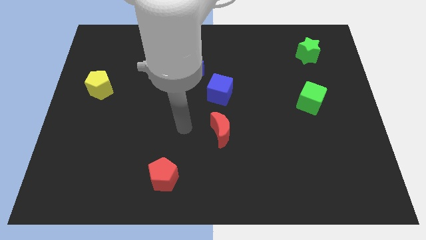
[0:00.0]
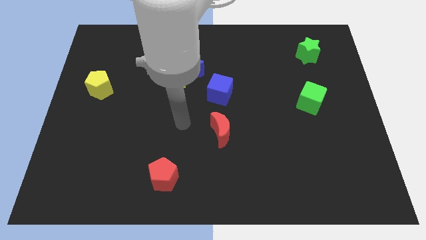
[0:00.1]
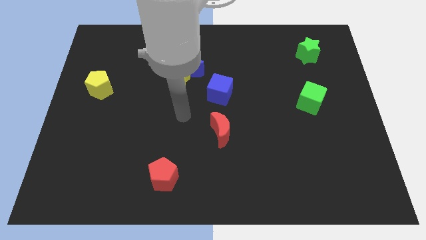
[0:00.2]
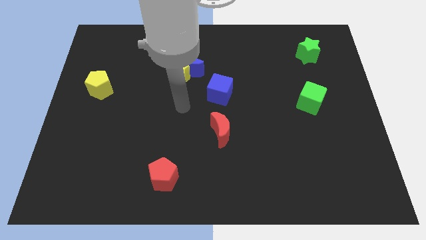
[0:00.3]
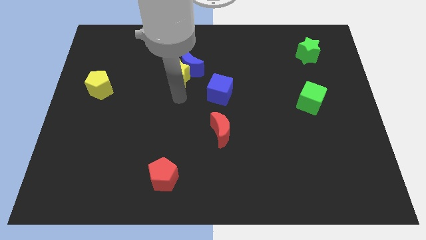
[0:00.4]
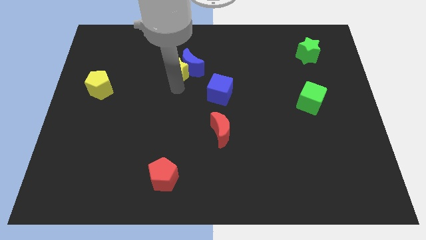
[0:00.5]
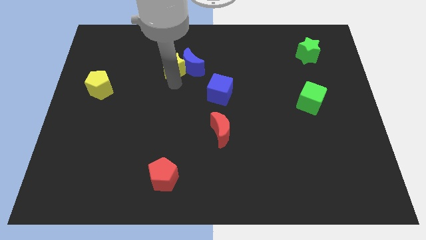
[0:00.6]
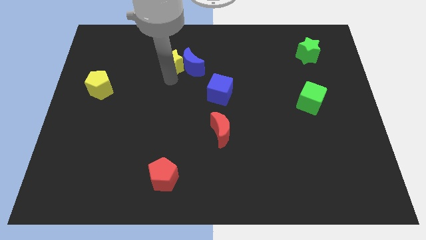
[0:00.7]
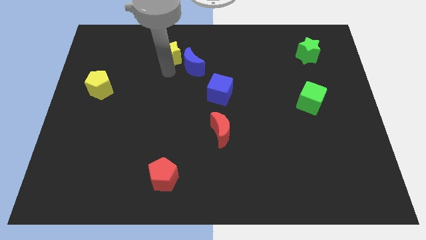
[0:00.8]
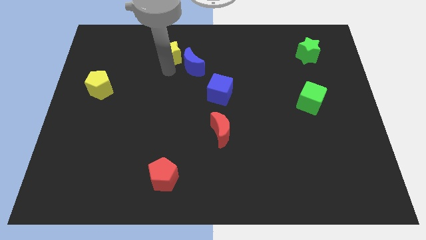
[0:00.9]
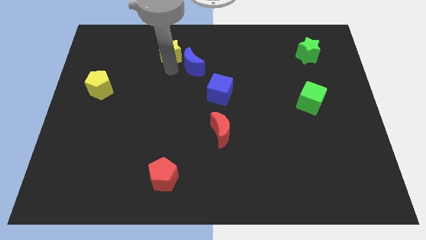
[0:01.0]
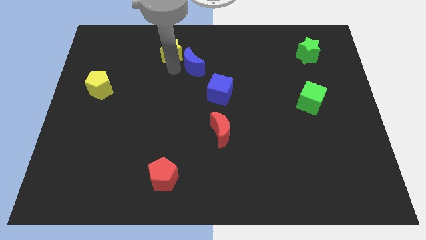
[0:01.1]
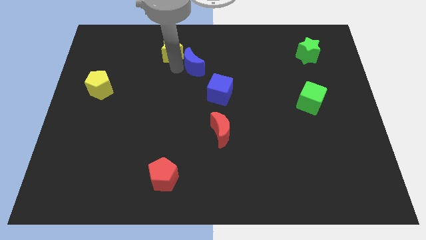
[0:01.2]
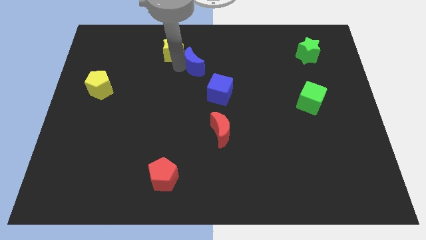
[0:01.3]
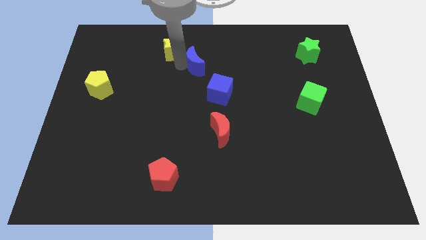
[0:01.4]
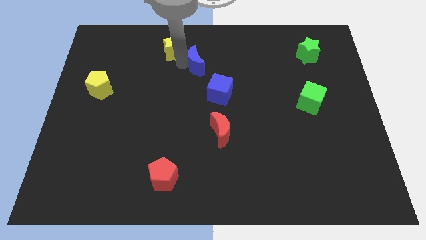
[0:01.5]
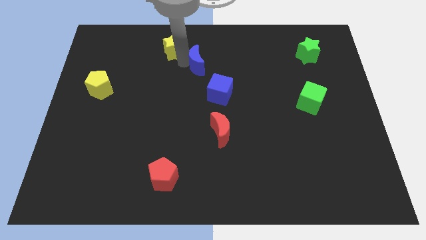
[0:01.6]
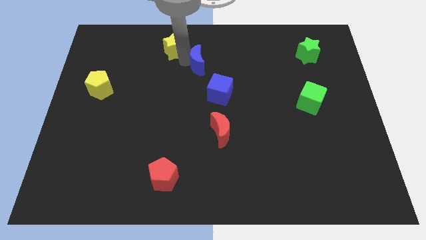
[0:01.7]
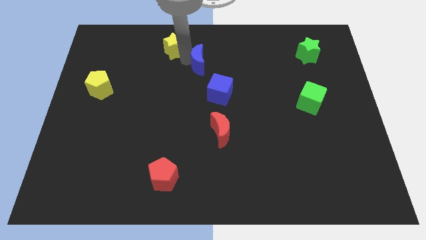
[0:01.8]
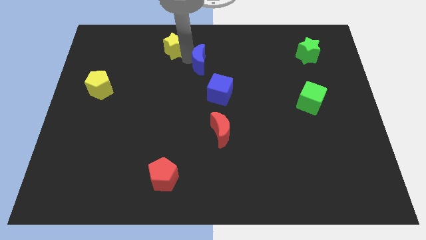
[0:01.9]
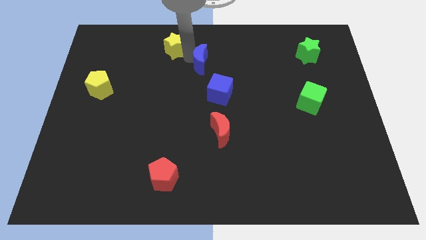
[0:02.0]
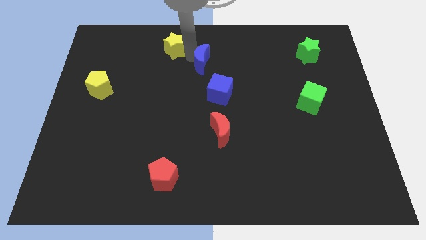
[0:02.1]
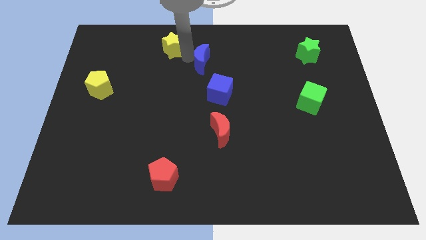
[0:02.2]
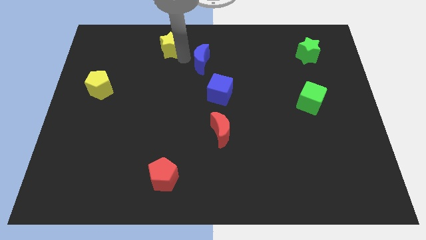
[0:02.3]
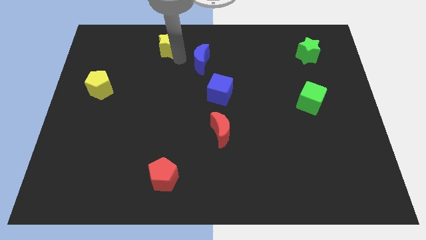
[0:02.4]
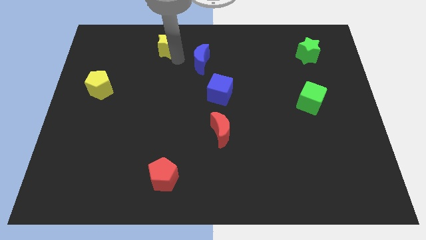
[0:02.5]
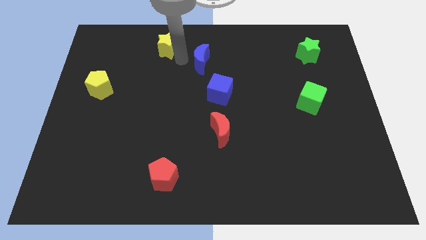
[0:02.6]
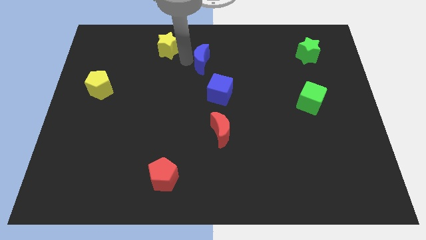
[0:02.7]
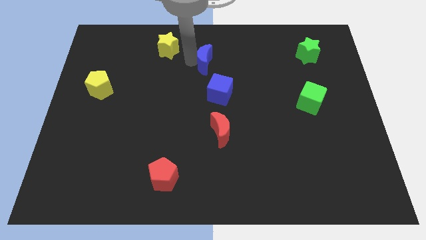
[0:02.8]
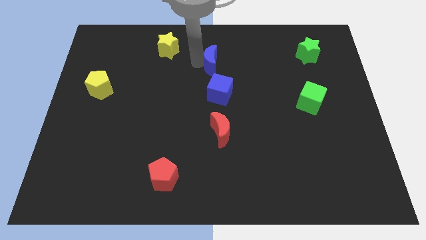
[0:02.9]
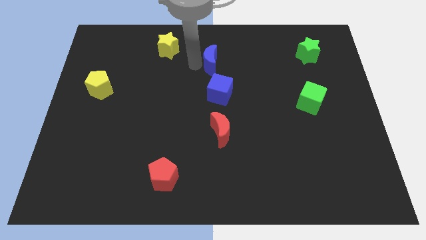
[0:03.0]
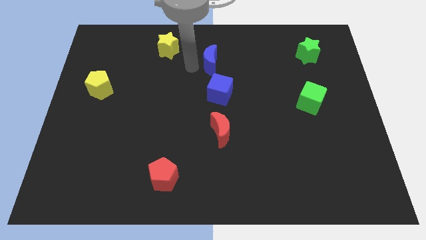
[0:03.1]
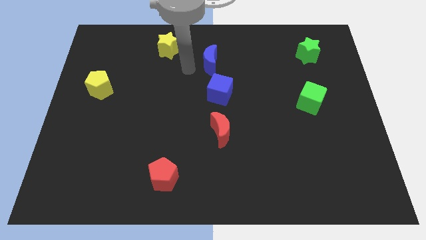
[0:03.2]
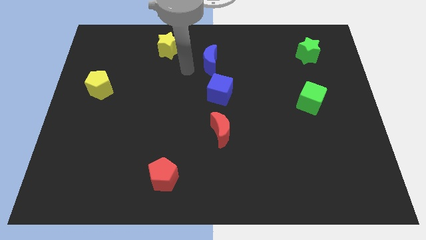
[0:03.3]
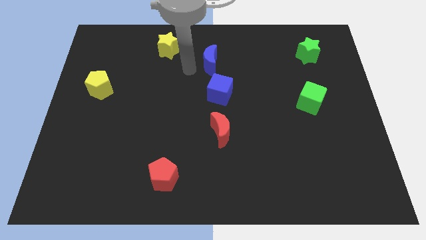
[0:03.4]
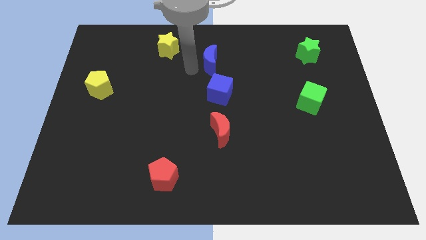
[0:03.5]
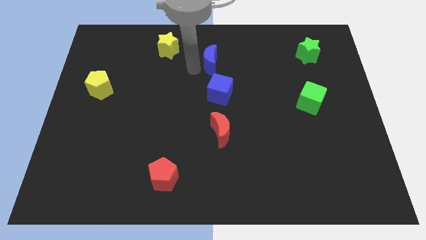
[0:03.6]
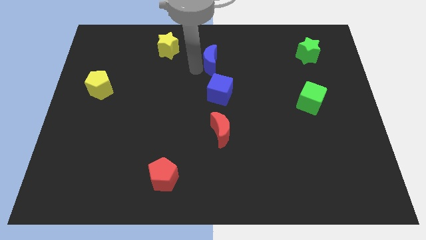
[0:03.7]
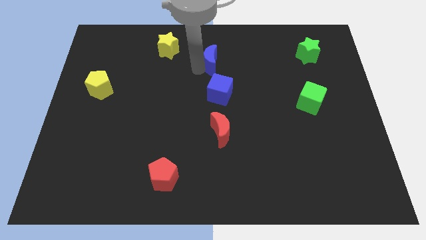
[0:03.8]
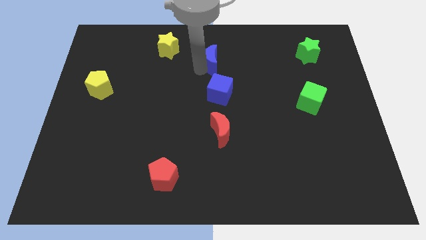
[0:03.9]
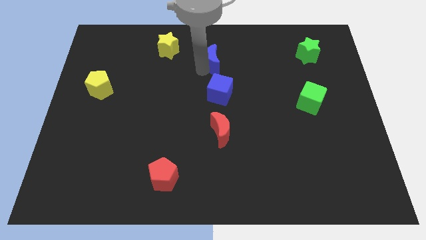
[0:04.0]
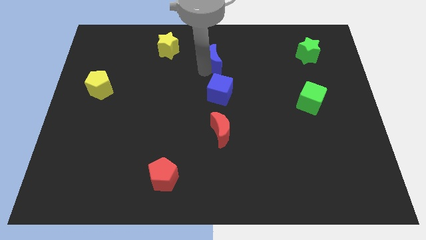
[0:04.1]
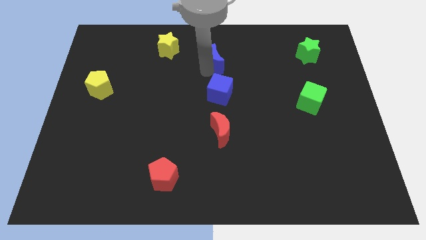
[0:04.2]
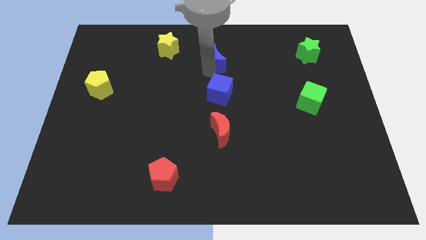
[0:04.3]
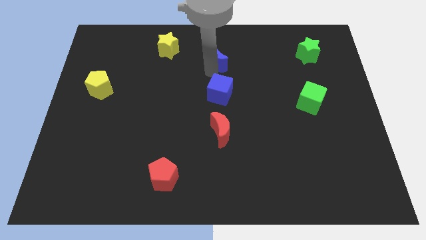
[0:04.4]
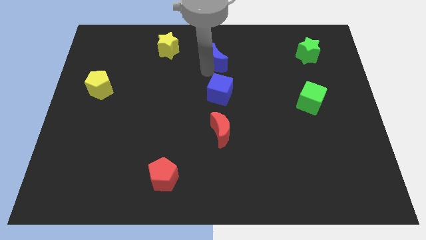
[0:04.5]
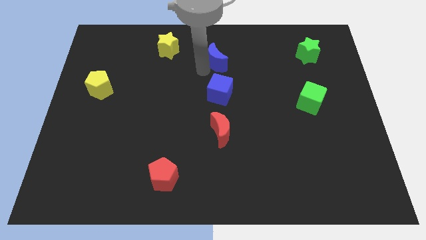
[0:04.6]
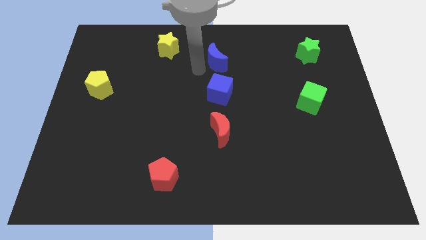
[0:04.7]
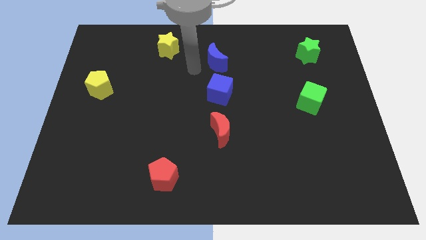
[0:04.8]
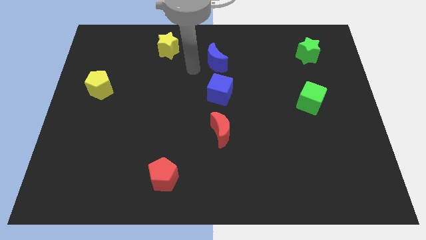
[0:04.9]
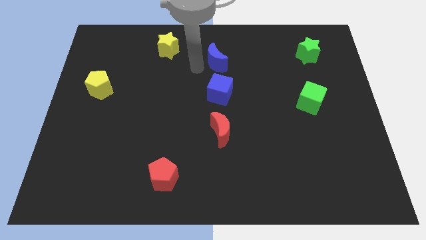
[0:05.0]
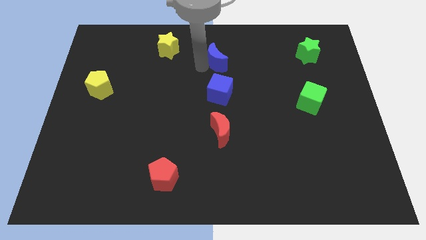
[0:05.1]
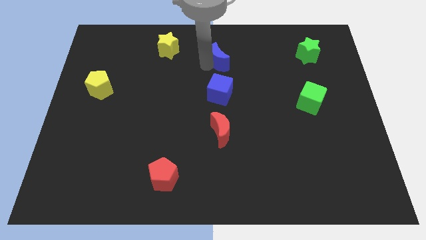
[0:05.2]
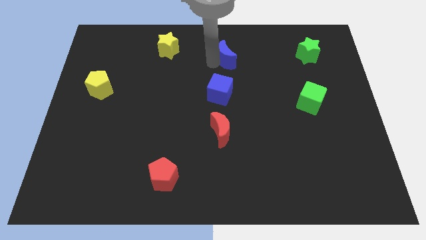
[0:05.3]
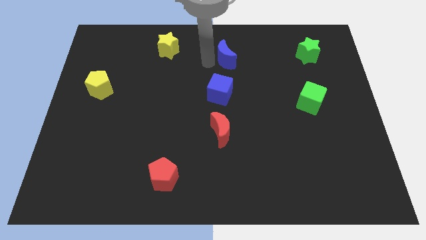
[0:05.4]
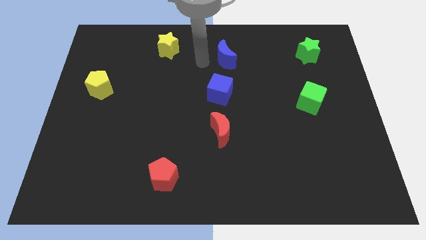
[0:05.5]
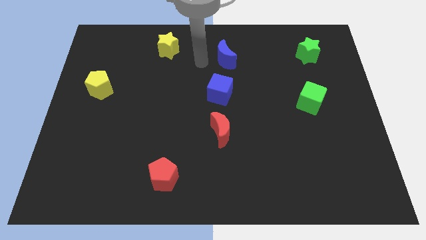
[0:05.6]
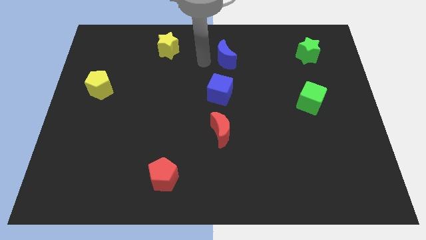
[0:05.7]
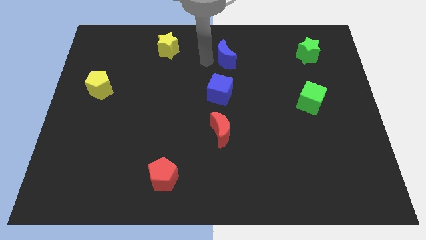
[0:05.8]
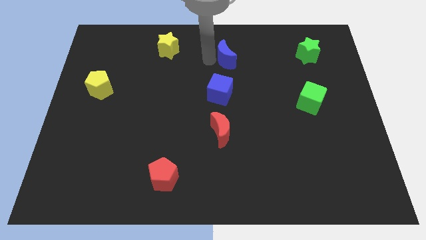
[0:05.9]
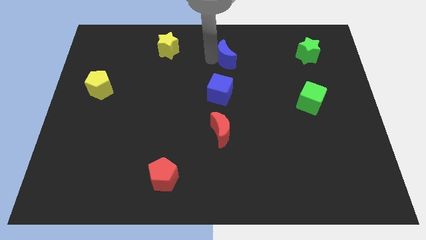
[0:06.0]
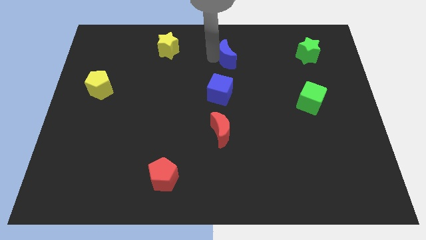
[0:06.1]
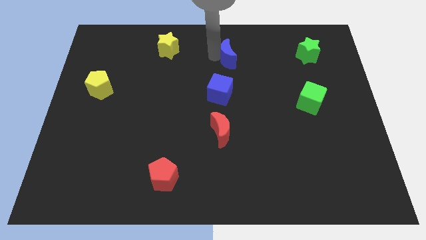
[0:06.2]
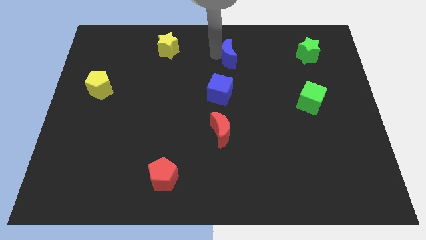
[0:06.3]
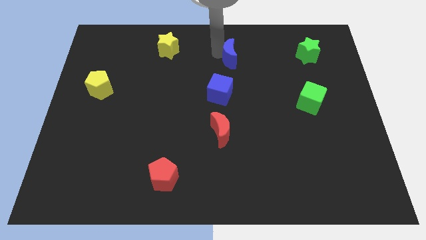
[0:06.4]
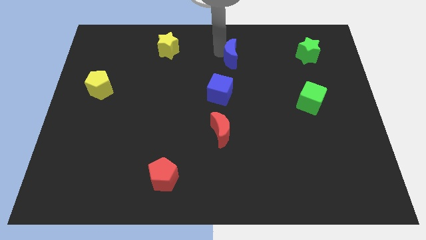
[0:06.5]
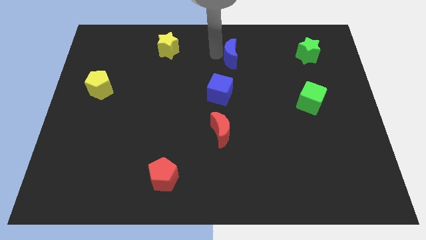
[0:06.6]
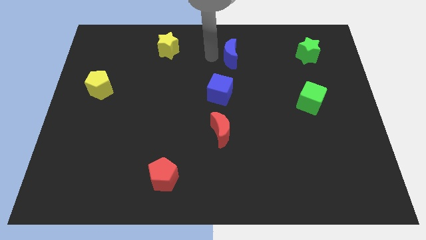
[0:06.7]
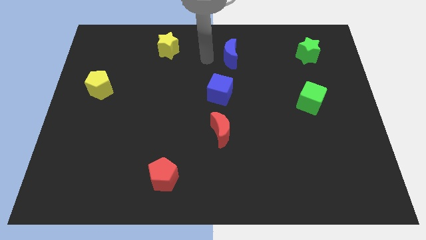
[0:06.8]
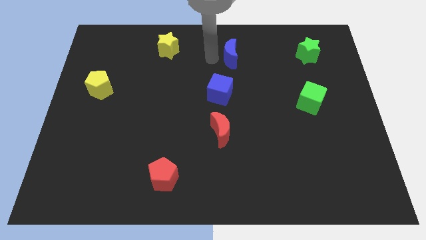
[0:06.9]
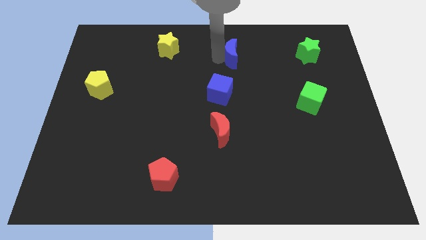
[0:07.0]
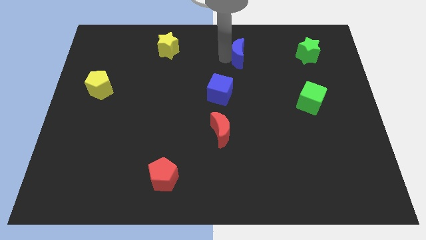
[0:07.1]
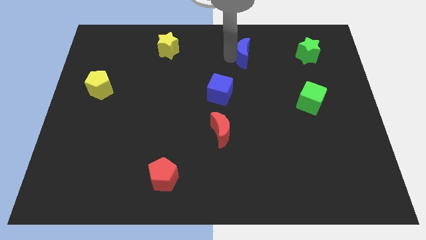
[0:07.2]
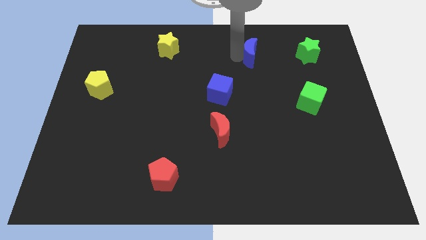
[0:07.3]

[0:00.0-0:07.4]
put the blue moon to the left of the green star

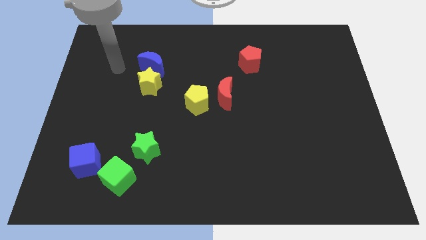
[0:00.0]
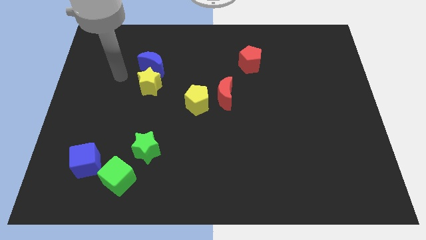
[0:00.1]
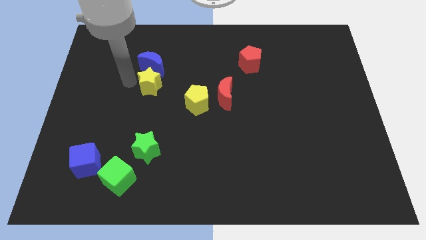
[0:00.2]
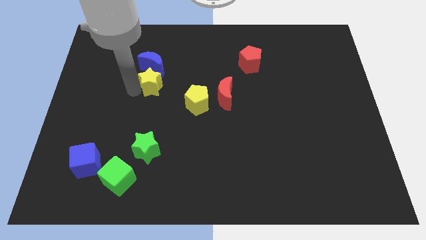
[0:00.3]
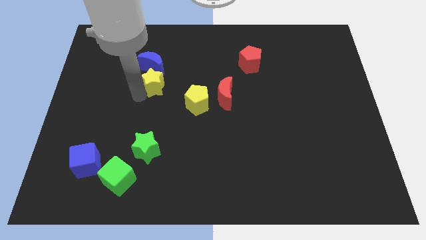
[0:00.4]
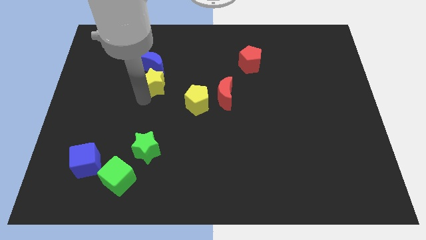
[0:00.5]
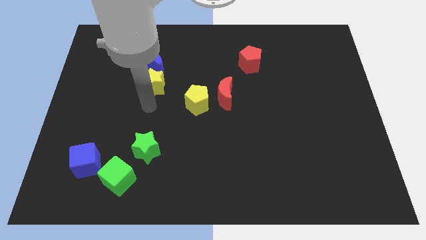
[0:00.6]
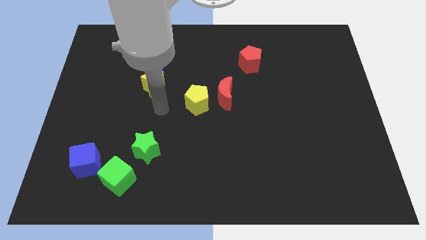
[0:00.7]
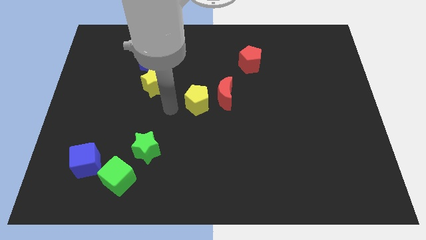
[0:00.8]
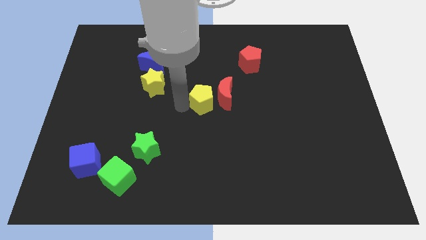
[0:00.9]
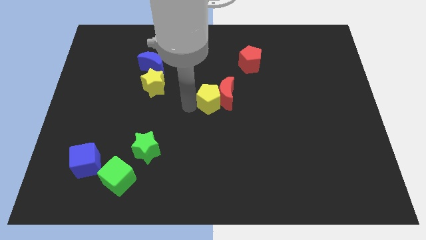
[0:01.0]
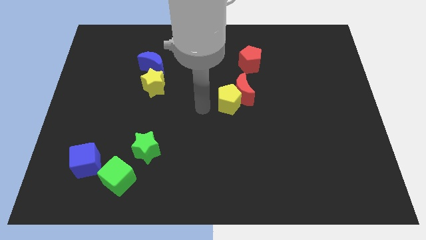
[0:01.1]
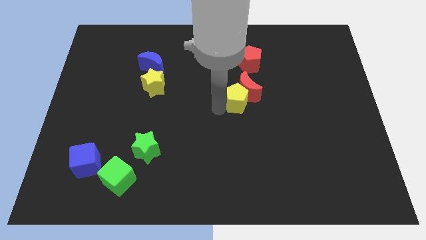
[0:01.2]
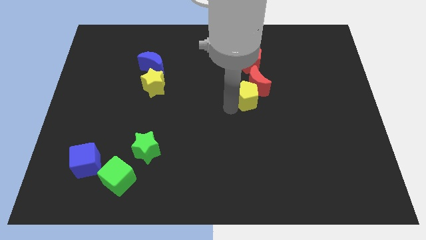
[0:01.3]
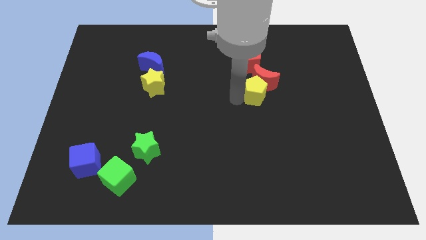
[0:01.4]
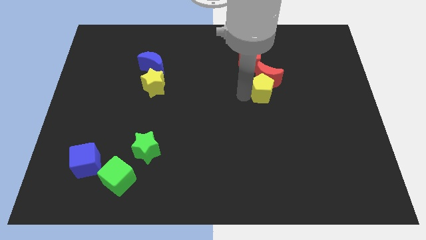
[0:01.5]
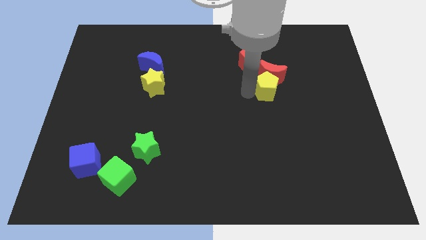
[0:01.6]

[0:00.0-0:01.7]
put the red moon to the right of the red pentagon
